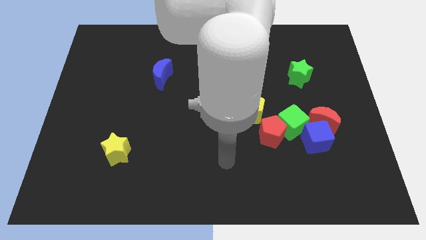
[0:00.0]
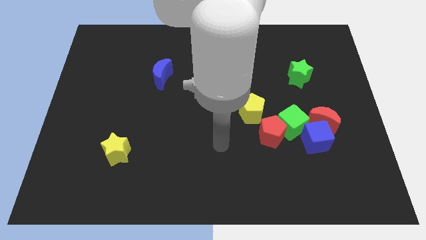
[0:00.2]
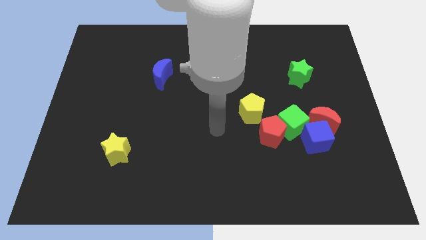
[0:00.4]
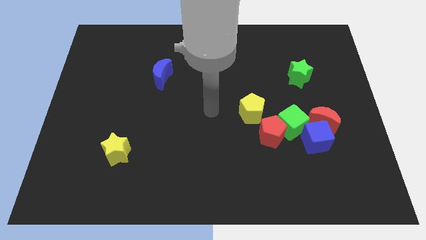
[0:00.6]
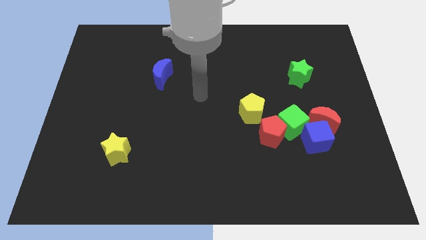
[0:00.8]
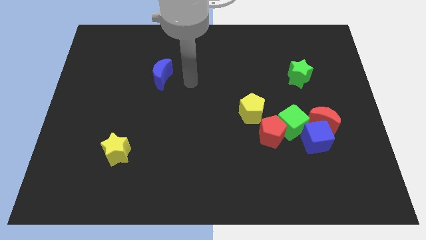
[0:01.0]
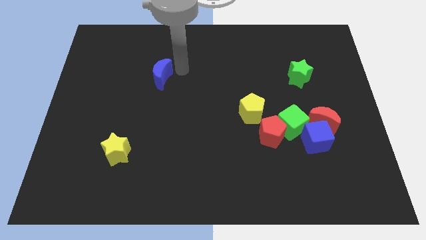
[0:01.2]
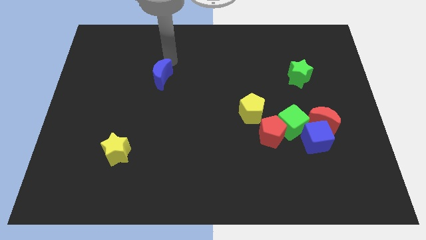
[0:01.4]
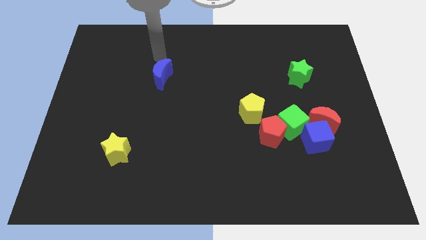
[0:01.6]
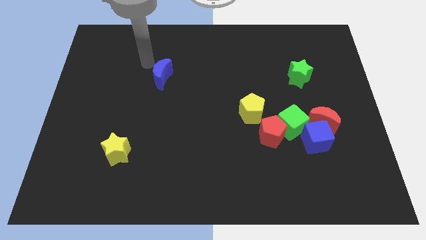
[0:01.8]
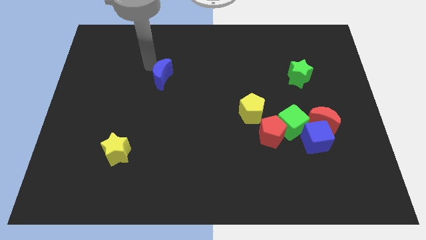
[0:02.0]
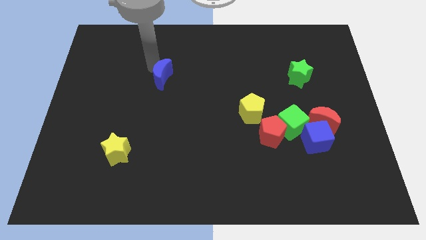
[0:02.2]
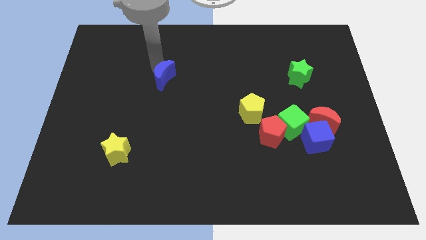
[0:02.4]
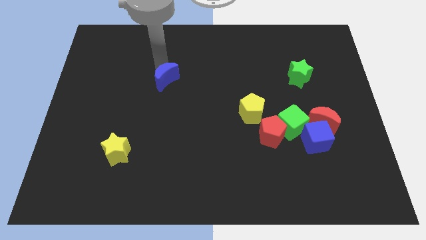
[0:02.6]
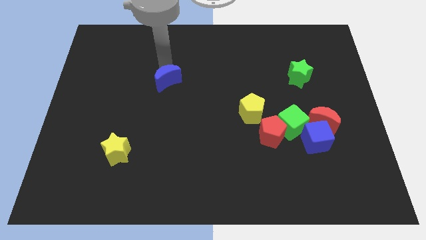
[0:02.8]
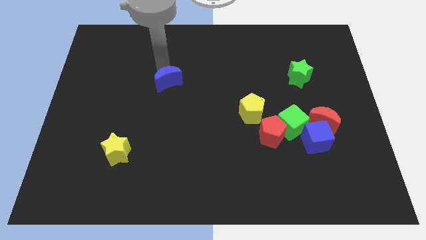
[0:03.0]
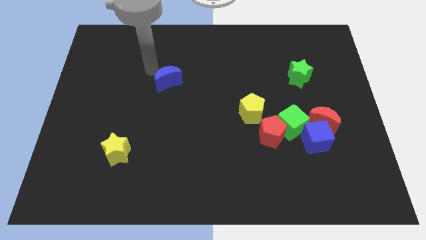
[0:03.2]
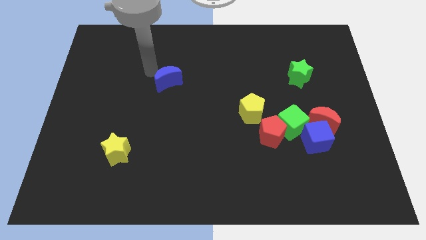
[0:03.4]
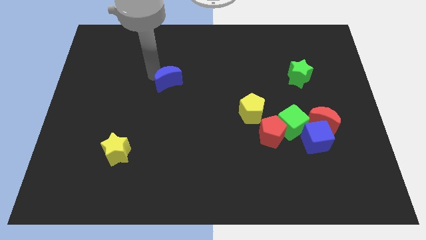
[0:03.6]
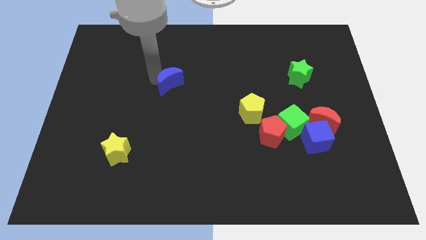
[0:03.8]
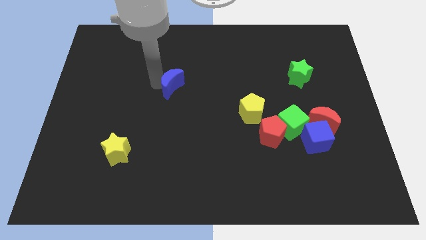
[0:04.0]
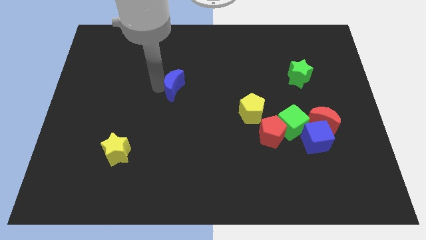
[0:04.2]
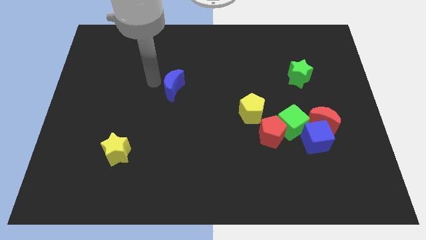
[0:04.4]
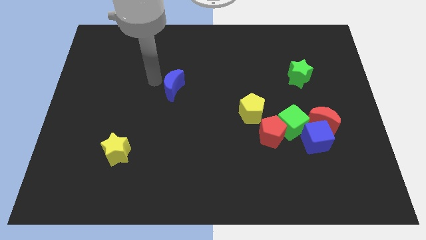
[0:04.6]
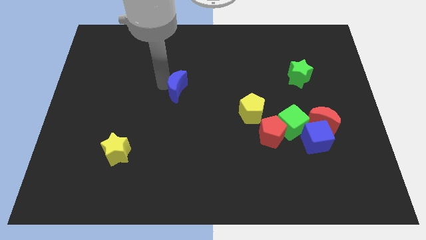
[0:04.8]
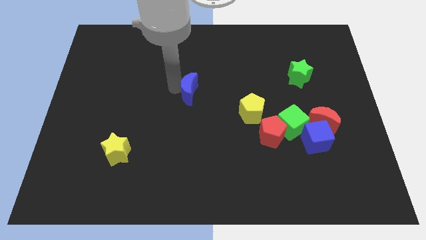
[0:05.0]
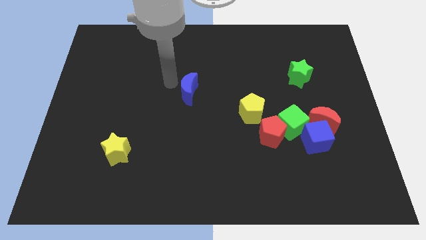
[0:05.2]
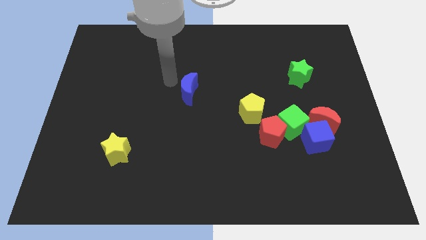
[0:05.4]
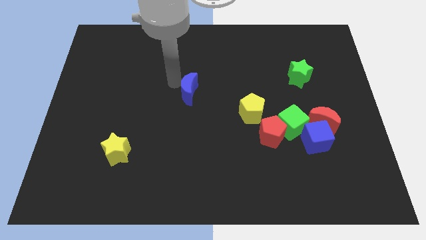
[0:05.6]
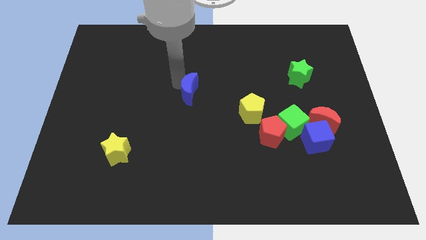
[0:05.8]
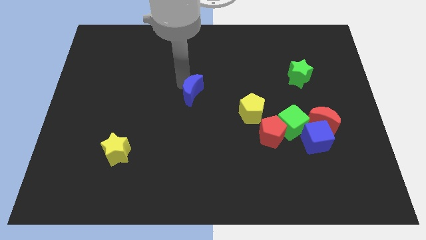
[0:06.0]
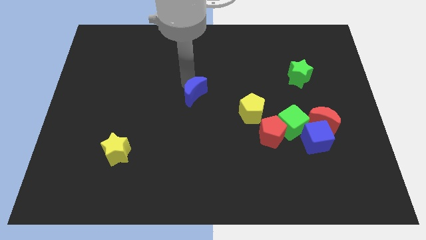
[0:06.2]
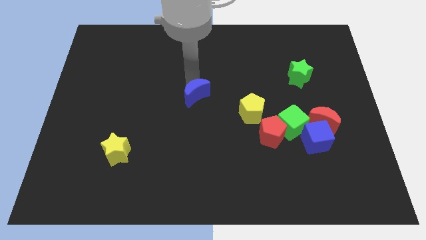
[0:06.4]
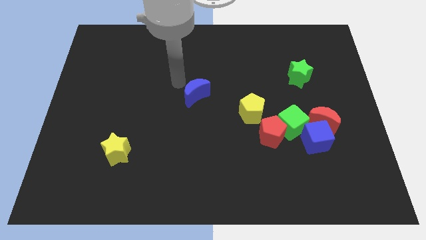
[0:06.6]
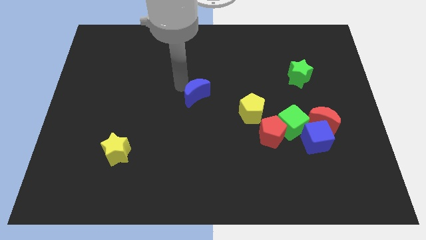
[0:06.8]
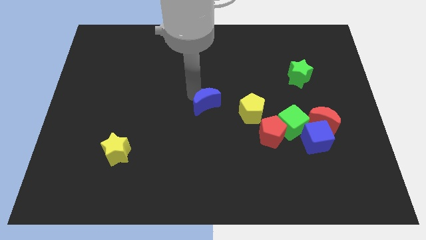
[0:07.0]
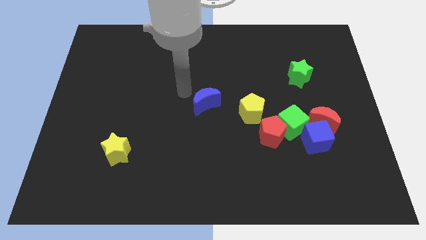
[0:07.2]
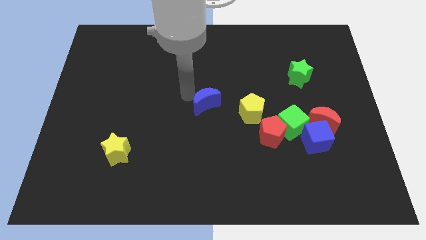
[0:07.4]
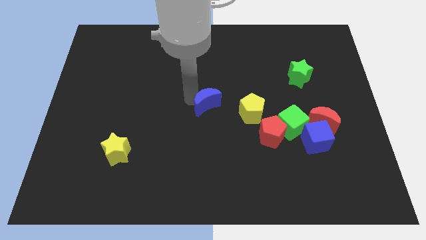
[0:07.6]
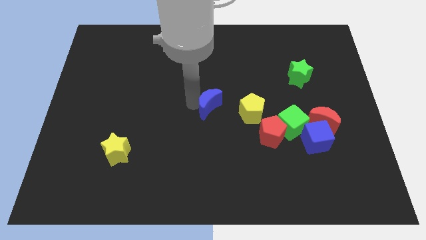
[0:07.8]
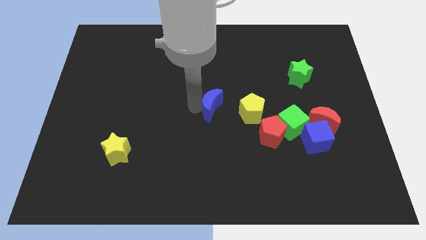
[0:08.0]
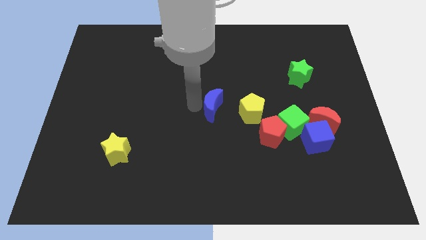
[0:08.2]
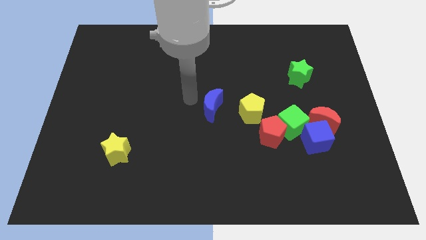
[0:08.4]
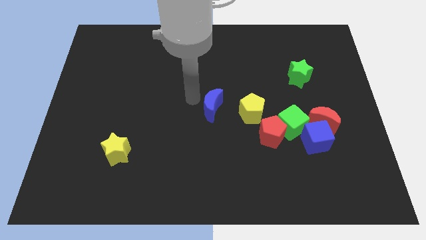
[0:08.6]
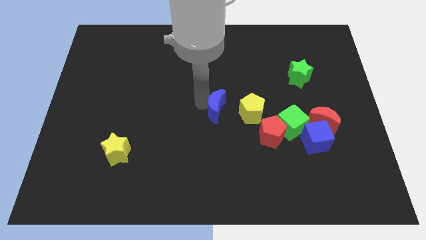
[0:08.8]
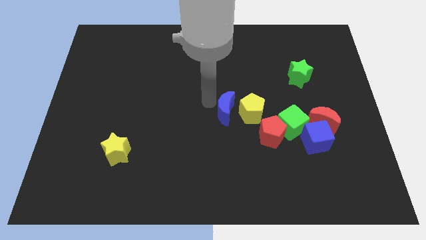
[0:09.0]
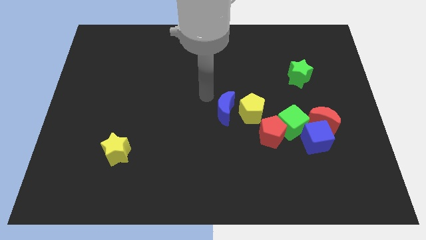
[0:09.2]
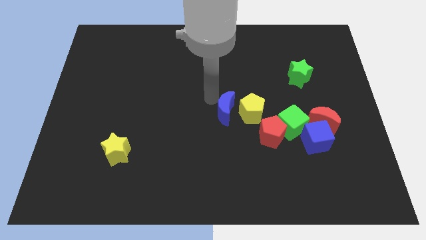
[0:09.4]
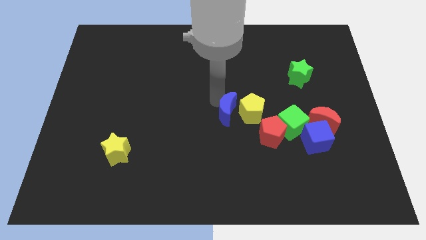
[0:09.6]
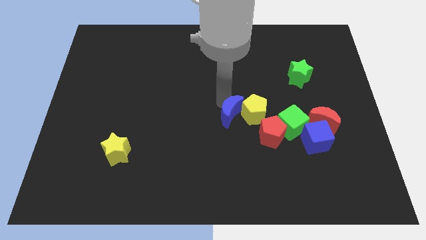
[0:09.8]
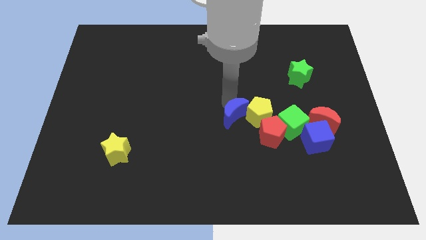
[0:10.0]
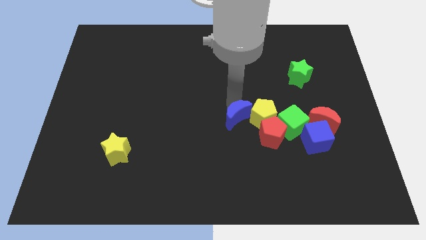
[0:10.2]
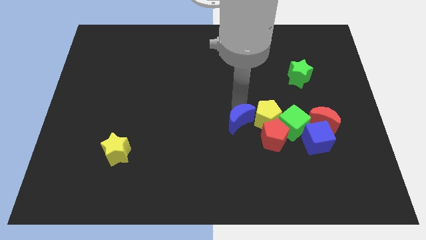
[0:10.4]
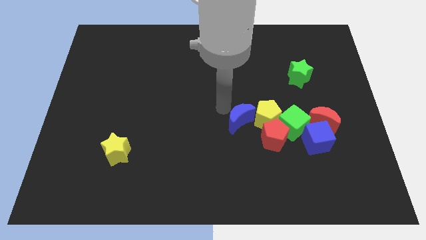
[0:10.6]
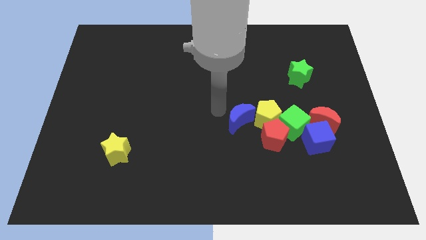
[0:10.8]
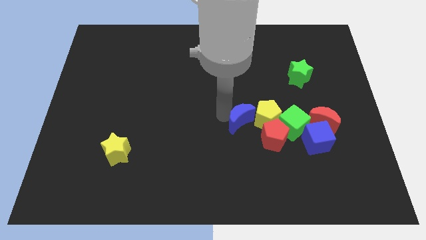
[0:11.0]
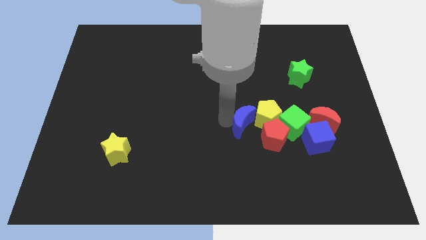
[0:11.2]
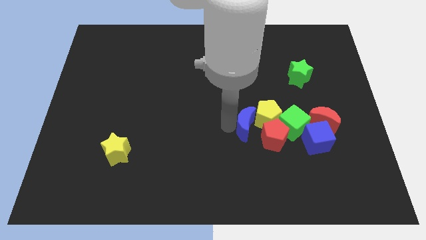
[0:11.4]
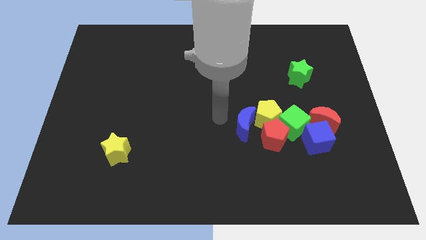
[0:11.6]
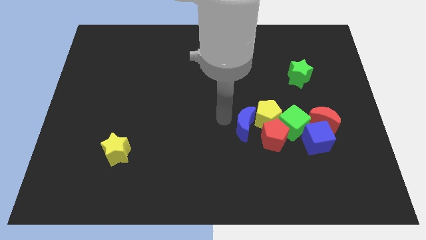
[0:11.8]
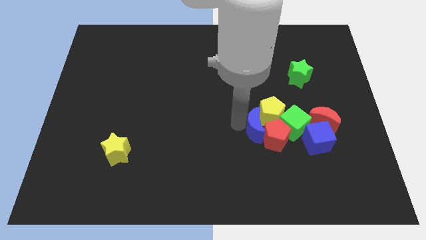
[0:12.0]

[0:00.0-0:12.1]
put the blue moon towards the red pentagon

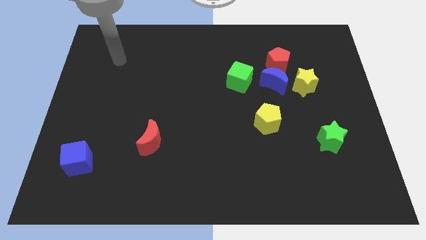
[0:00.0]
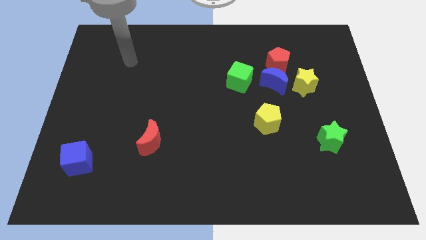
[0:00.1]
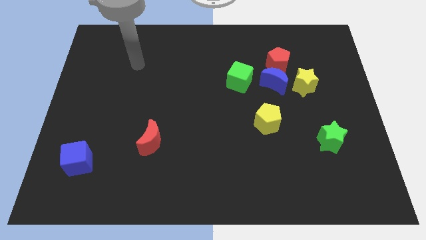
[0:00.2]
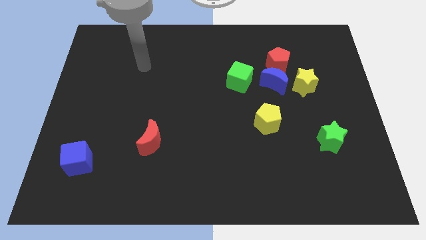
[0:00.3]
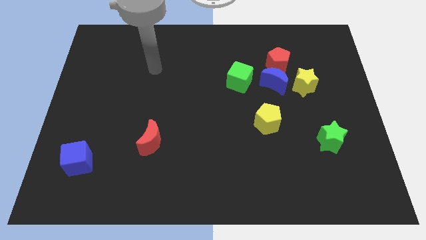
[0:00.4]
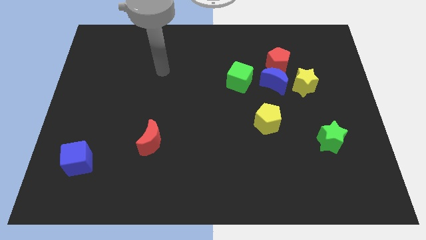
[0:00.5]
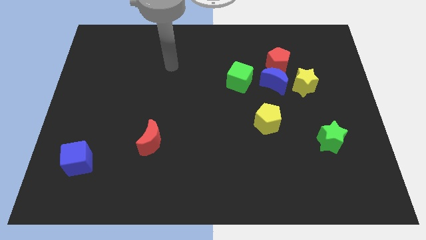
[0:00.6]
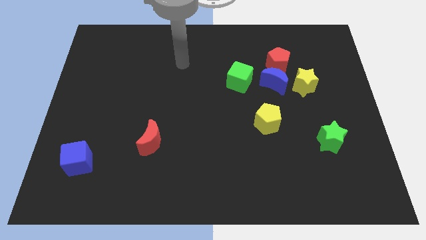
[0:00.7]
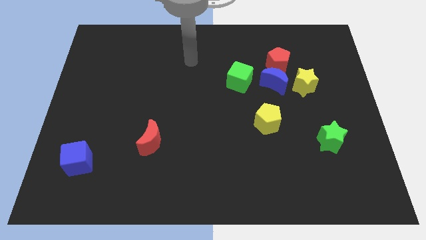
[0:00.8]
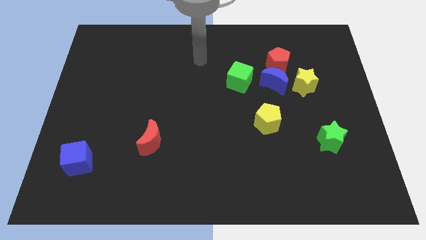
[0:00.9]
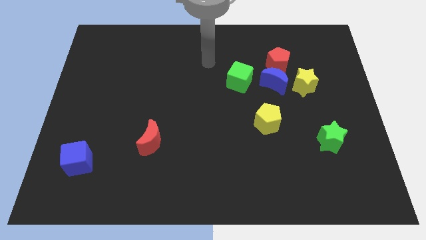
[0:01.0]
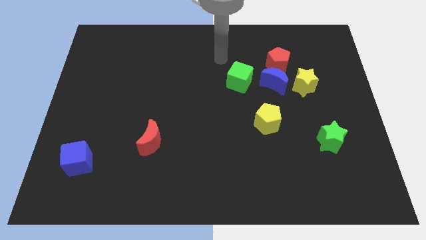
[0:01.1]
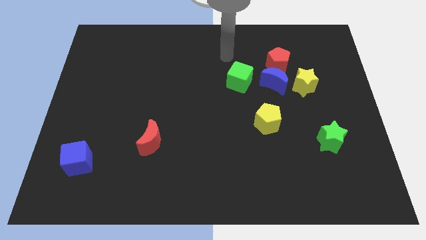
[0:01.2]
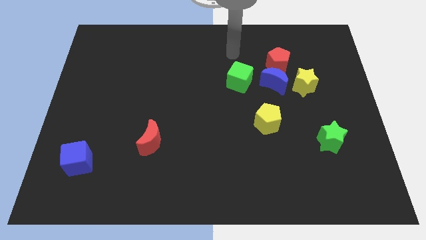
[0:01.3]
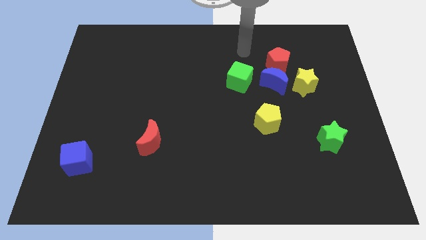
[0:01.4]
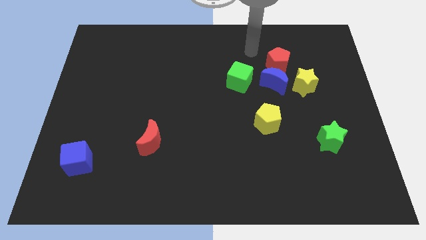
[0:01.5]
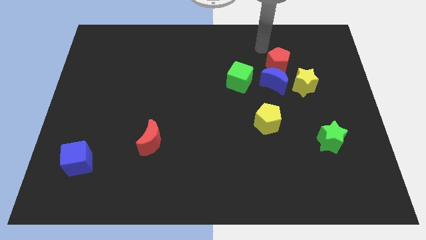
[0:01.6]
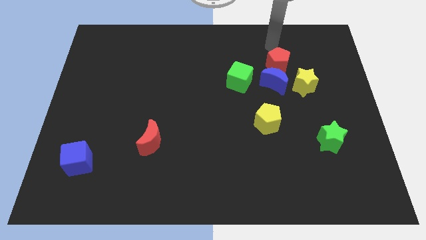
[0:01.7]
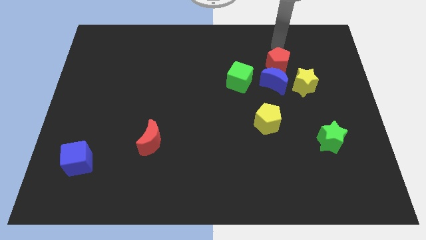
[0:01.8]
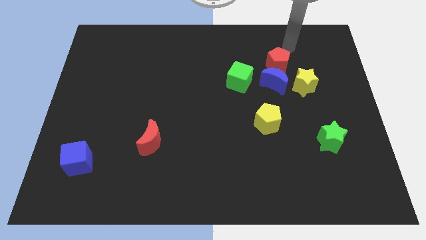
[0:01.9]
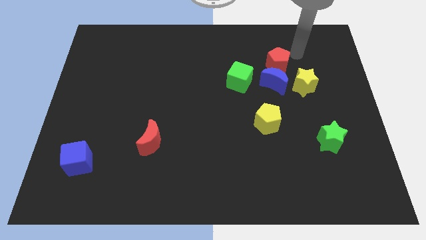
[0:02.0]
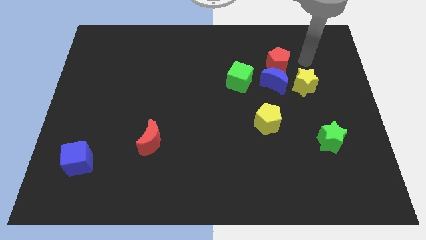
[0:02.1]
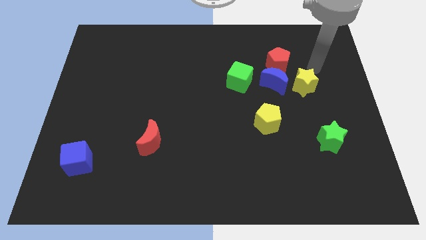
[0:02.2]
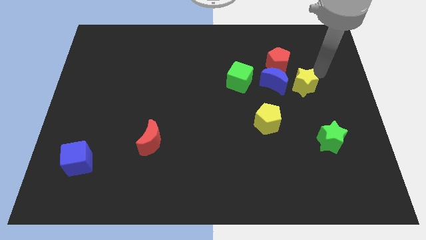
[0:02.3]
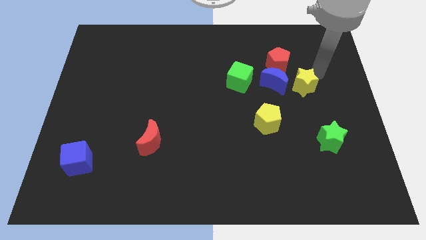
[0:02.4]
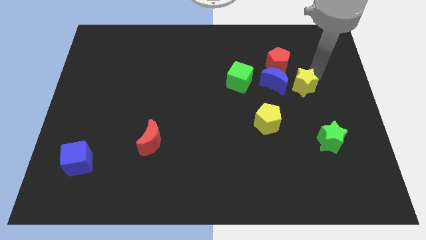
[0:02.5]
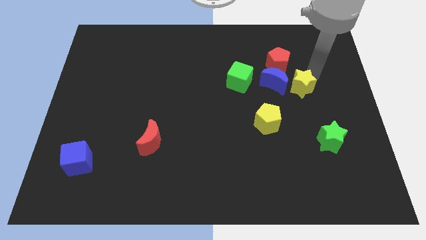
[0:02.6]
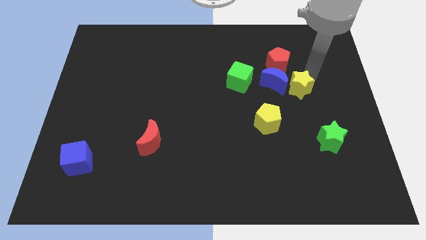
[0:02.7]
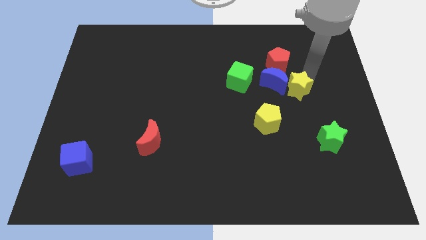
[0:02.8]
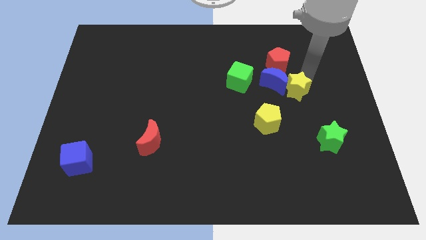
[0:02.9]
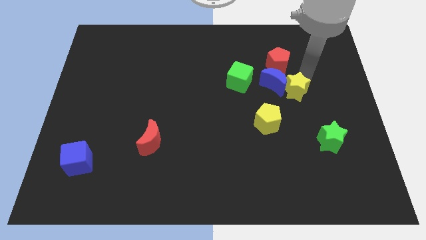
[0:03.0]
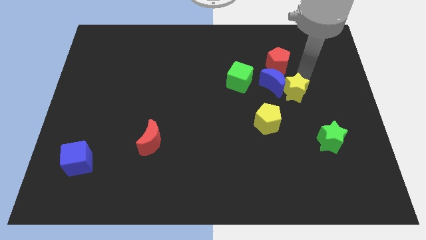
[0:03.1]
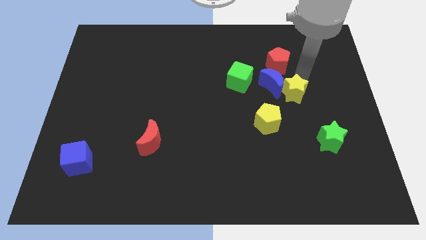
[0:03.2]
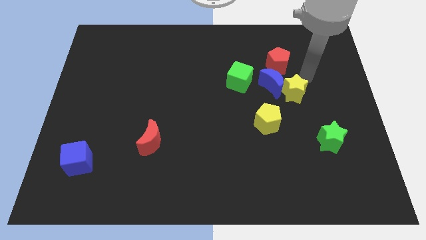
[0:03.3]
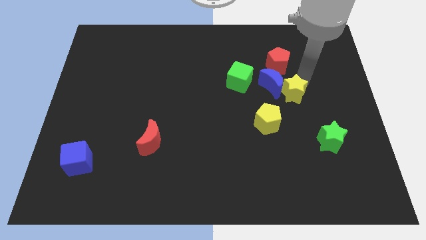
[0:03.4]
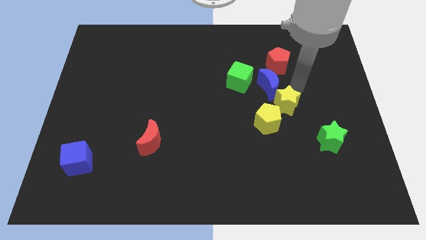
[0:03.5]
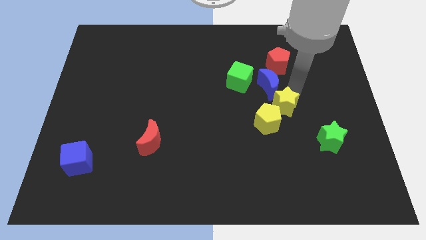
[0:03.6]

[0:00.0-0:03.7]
put the yellow star to the yellow pentagon
